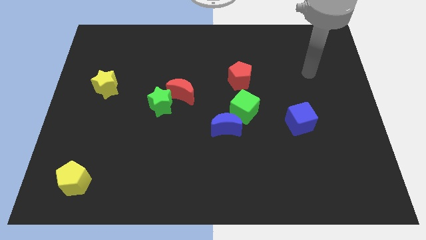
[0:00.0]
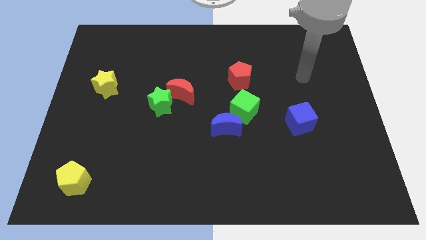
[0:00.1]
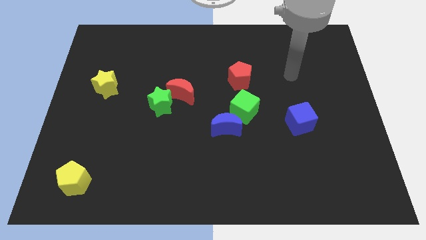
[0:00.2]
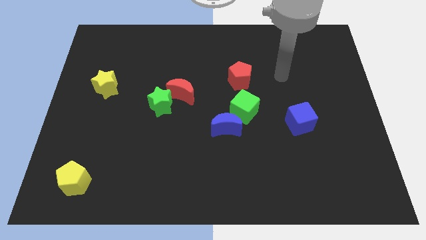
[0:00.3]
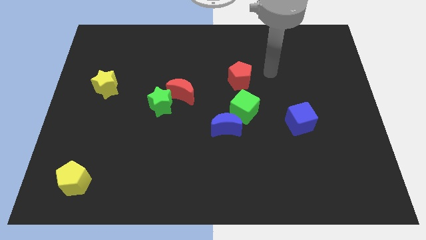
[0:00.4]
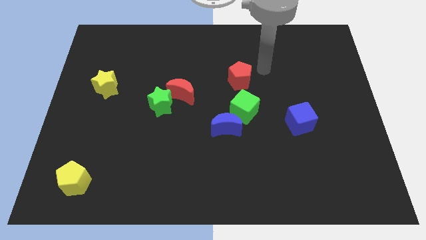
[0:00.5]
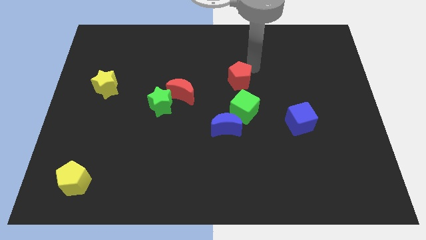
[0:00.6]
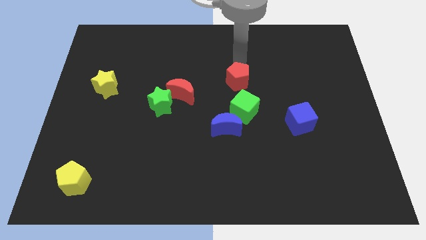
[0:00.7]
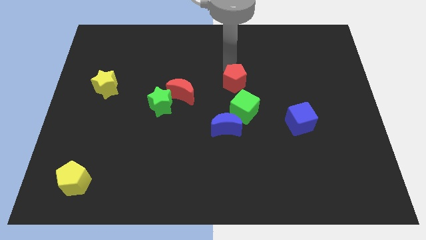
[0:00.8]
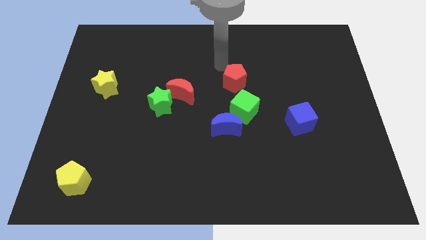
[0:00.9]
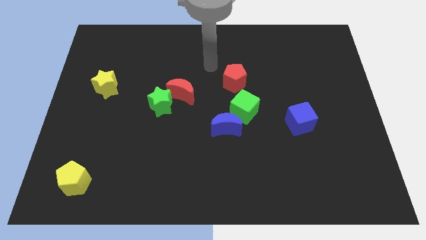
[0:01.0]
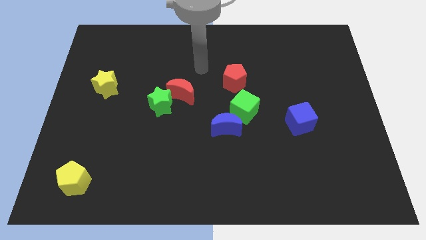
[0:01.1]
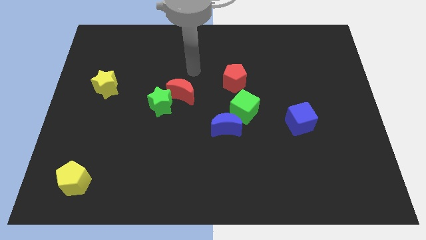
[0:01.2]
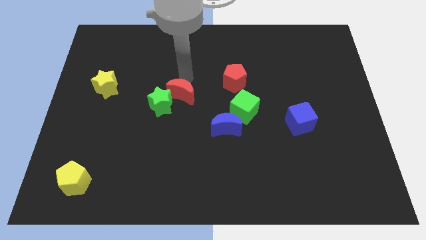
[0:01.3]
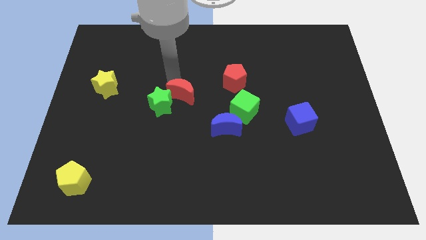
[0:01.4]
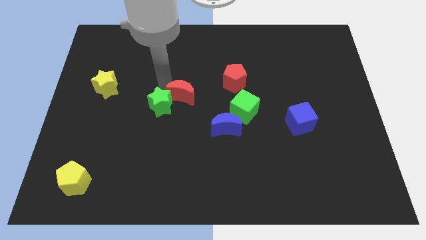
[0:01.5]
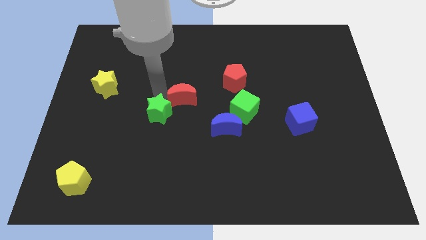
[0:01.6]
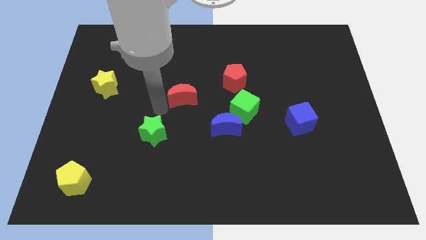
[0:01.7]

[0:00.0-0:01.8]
separate the red moon from the green star

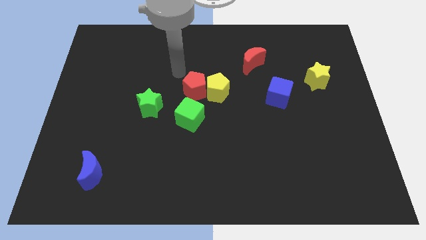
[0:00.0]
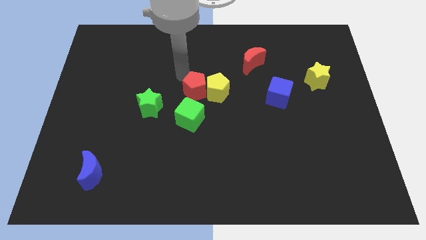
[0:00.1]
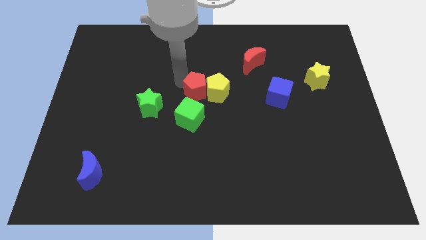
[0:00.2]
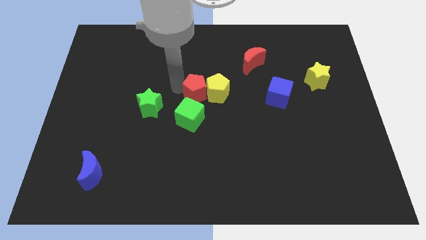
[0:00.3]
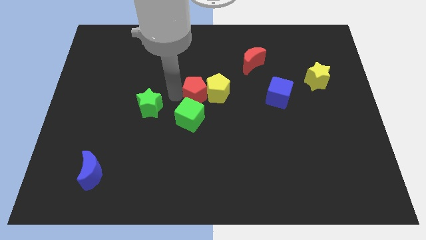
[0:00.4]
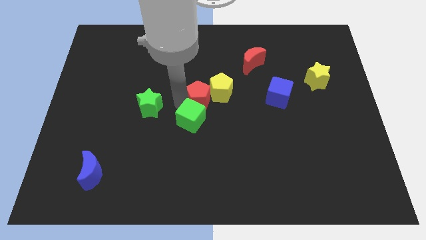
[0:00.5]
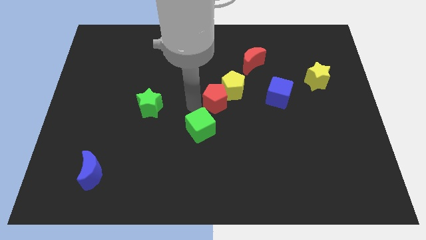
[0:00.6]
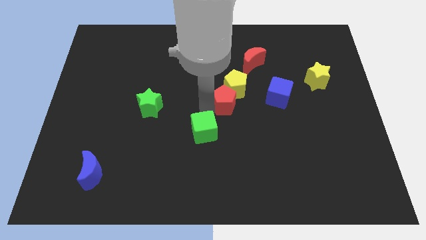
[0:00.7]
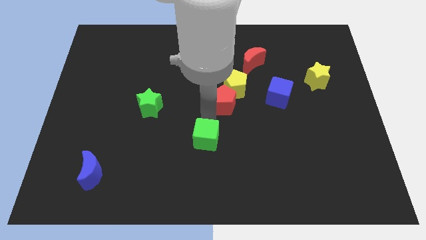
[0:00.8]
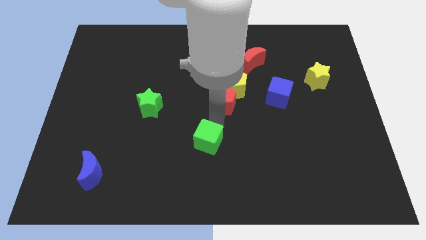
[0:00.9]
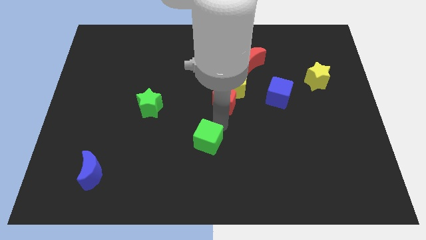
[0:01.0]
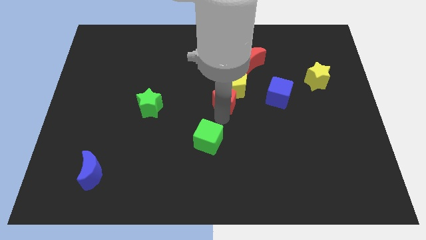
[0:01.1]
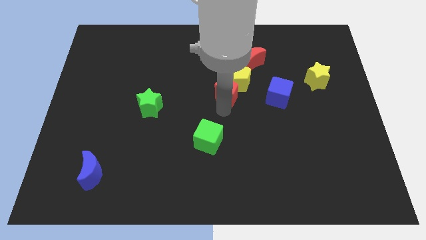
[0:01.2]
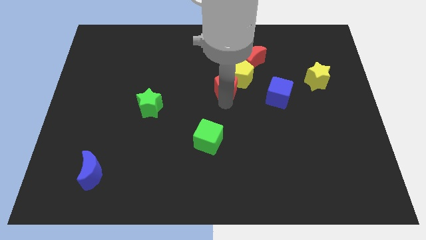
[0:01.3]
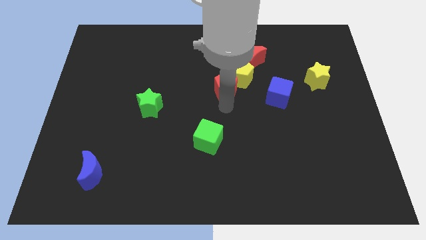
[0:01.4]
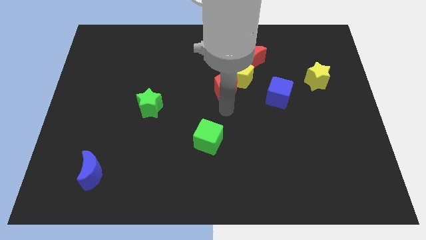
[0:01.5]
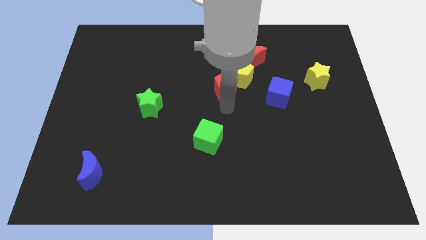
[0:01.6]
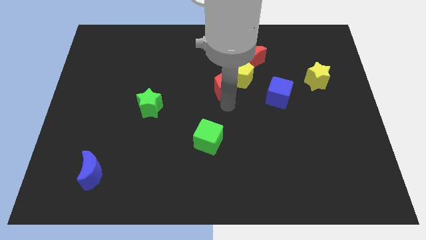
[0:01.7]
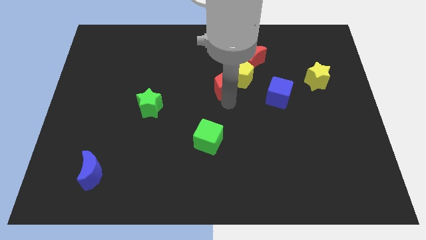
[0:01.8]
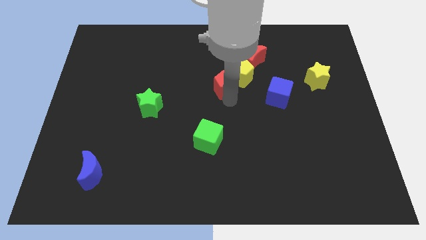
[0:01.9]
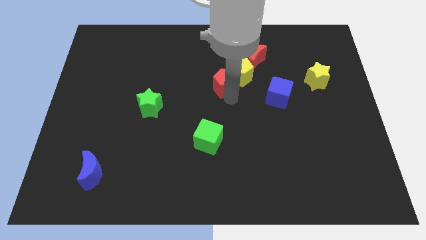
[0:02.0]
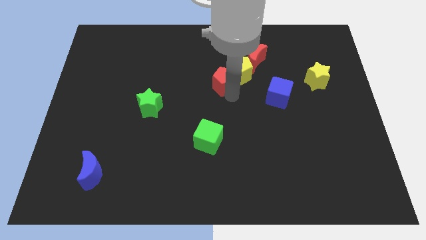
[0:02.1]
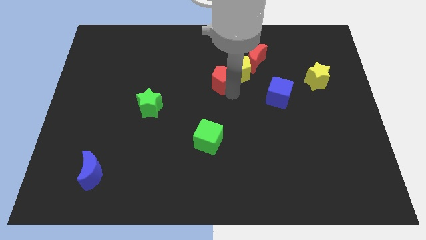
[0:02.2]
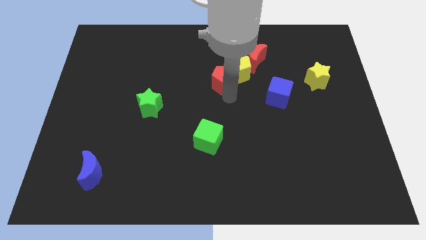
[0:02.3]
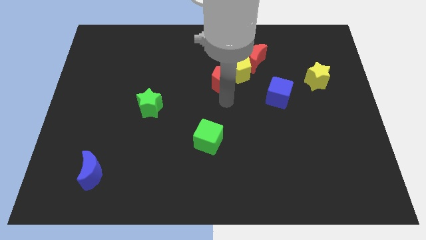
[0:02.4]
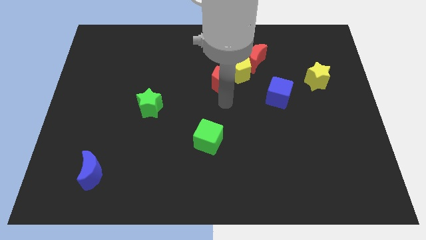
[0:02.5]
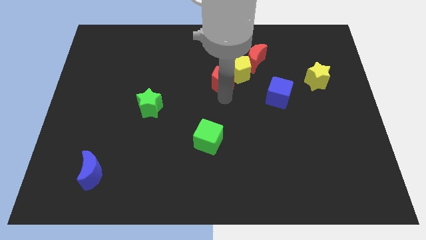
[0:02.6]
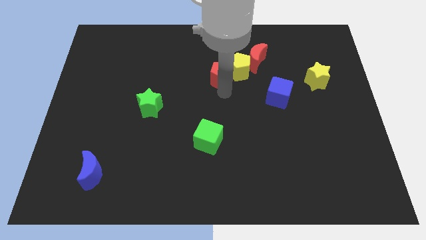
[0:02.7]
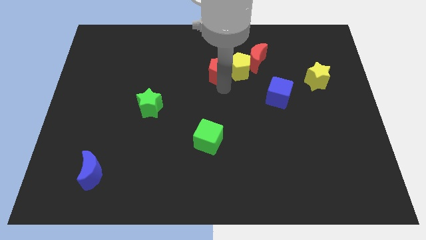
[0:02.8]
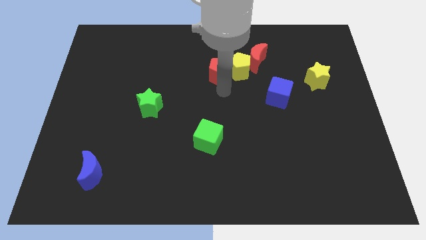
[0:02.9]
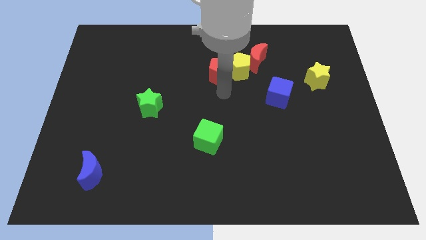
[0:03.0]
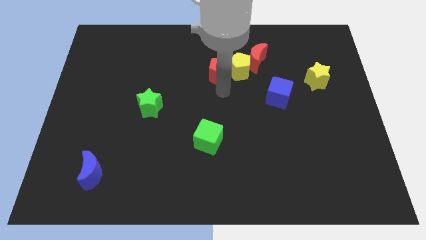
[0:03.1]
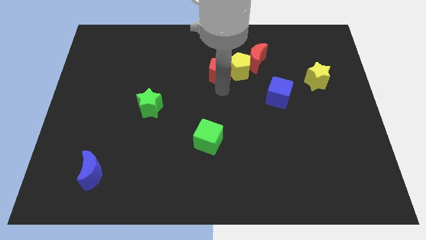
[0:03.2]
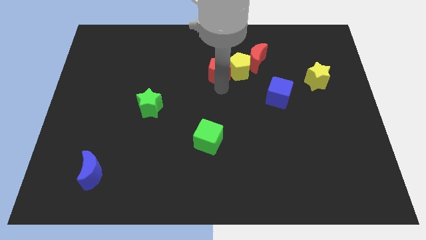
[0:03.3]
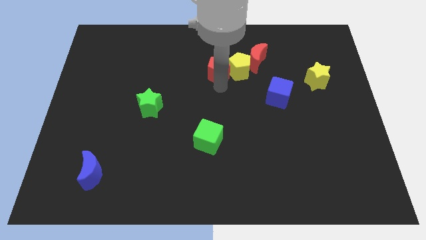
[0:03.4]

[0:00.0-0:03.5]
move the red pentagon away from the yellow pentagon and green cube

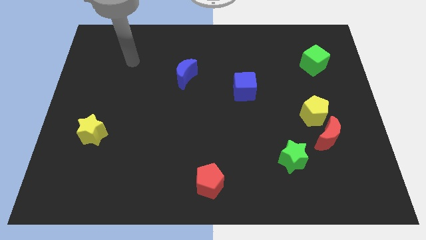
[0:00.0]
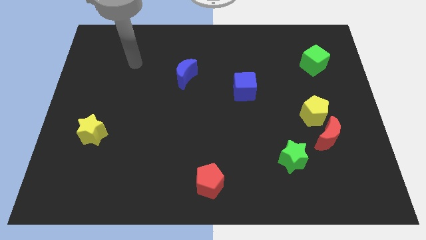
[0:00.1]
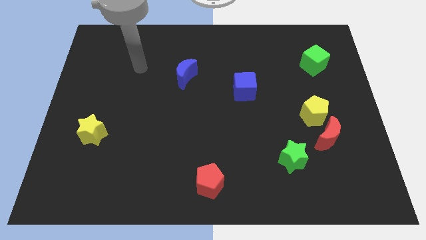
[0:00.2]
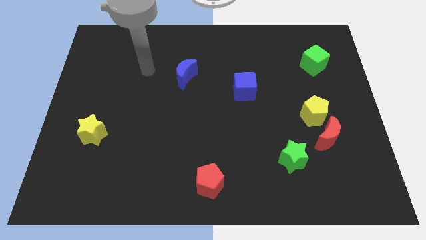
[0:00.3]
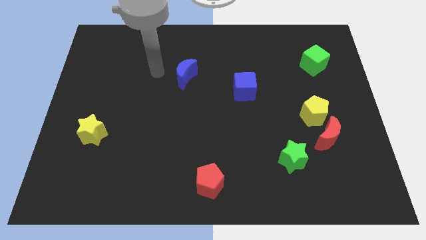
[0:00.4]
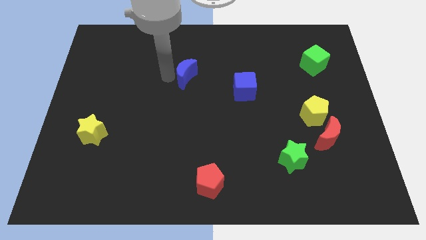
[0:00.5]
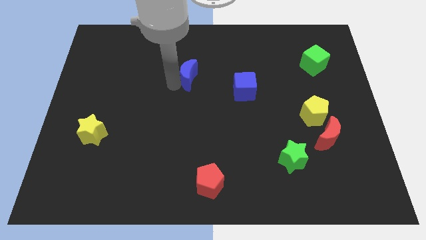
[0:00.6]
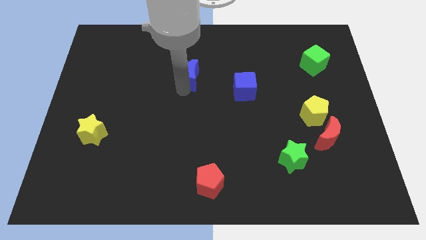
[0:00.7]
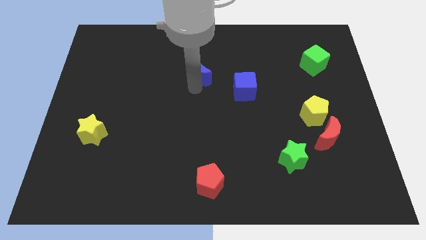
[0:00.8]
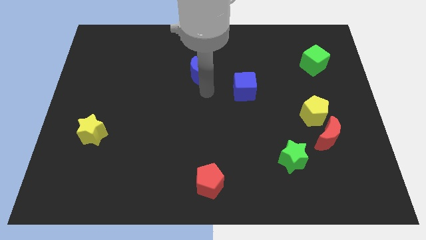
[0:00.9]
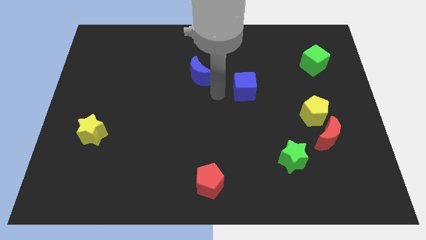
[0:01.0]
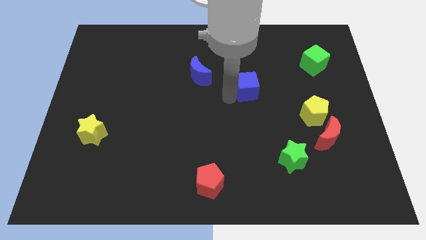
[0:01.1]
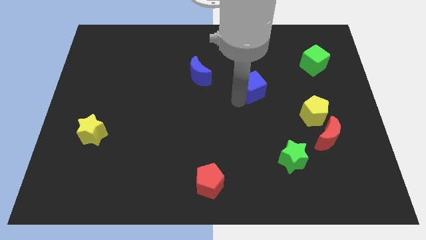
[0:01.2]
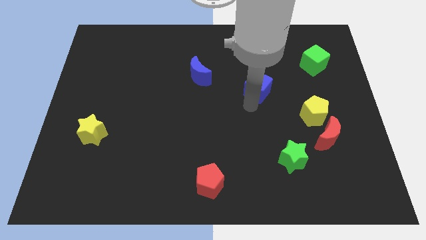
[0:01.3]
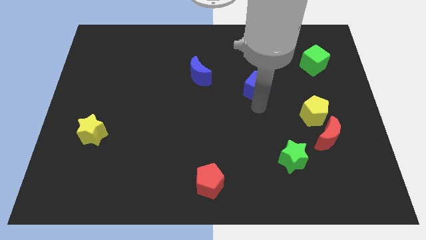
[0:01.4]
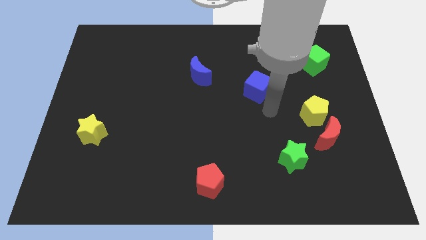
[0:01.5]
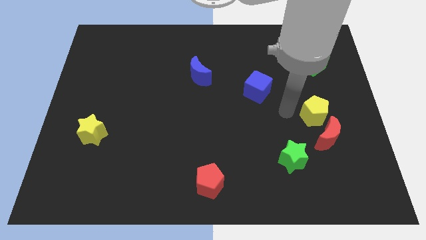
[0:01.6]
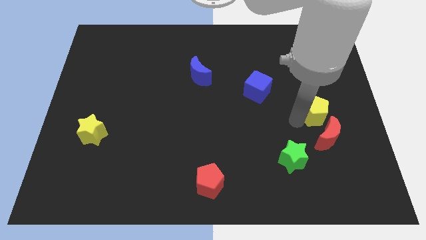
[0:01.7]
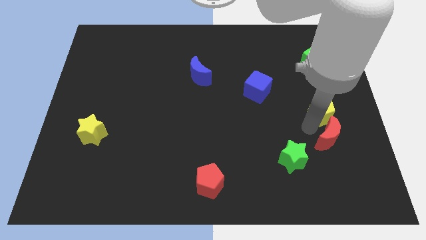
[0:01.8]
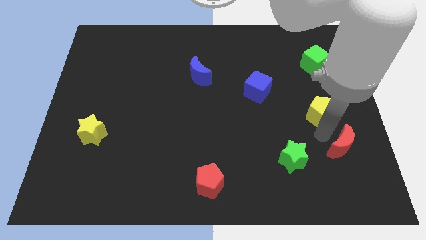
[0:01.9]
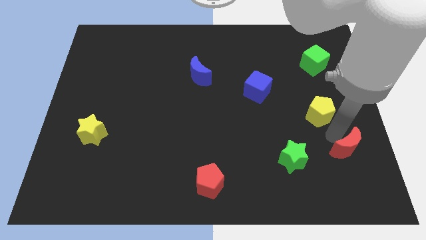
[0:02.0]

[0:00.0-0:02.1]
separate the yellow pentagon from the red moon

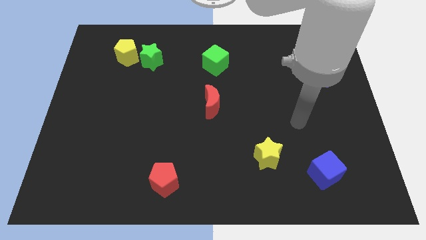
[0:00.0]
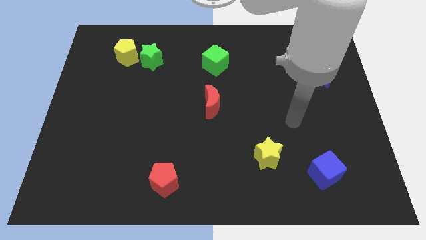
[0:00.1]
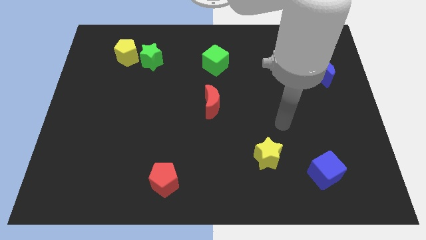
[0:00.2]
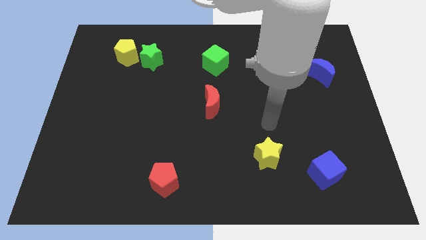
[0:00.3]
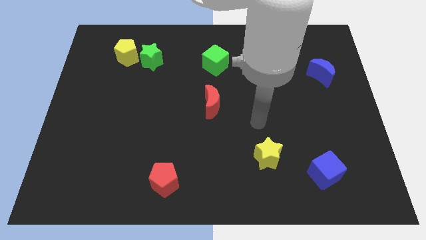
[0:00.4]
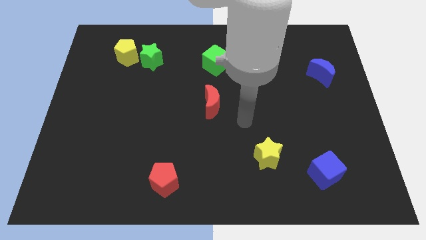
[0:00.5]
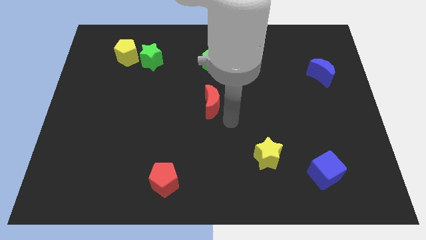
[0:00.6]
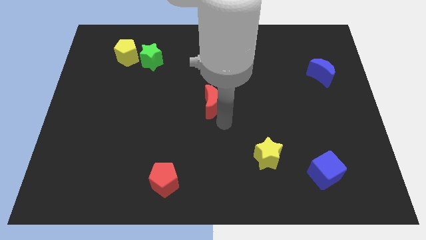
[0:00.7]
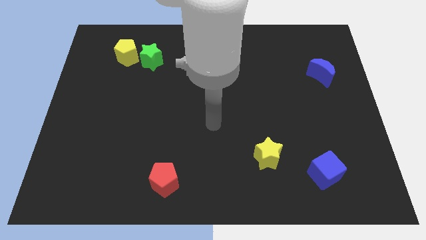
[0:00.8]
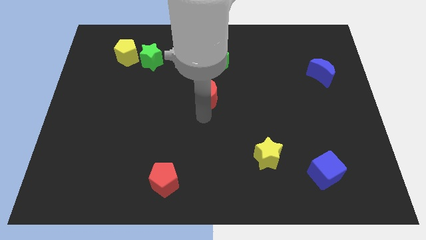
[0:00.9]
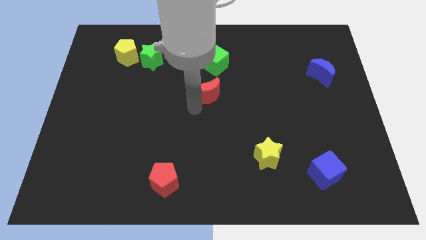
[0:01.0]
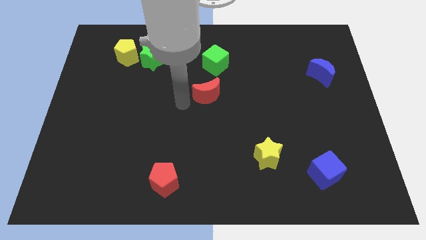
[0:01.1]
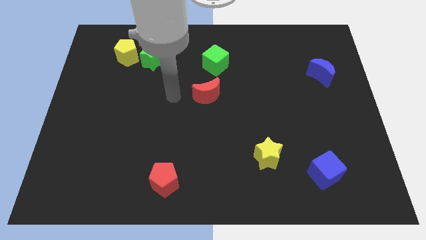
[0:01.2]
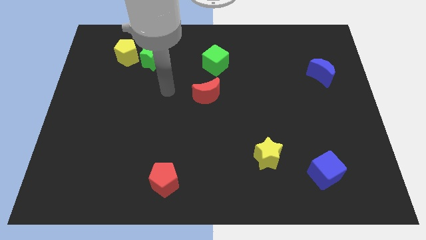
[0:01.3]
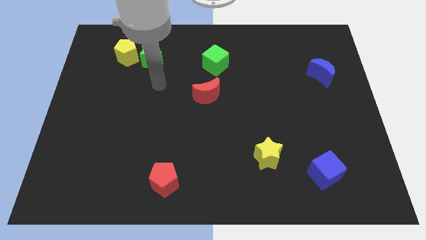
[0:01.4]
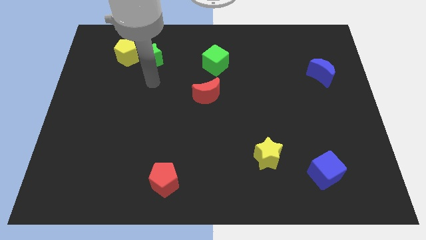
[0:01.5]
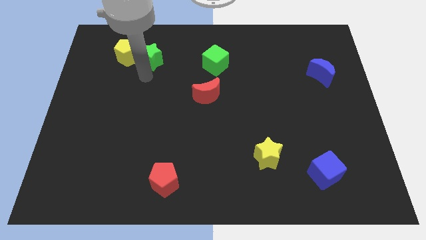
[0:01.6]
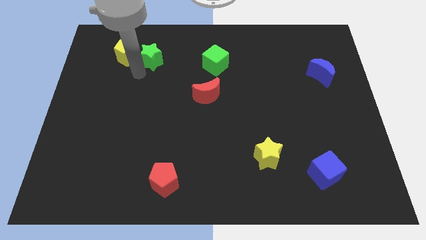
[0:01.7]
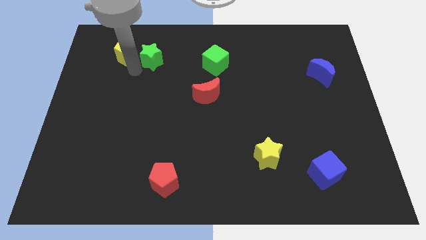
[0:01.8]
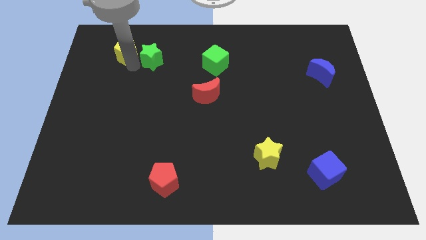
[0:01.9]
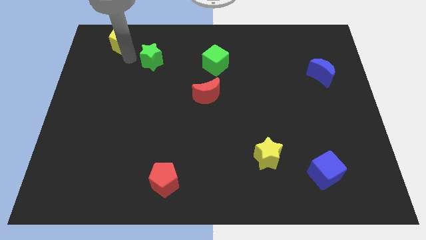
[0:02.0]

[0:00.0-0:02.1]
move the green star away from the yellow pentagon

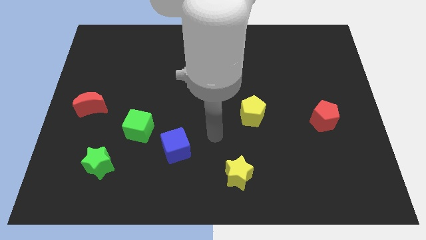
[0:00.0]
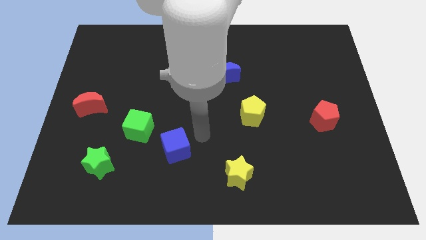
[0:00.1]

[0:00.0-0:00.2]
separate the blue cube from the green cube
